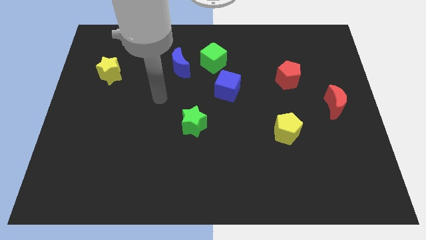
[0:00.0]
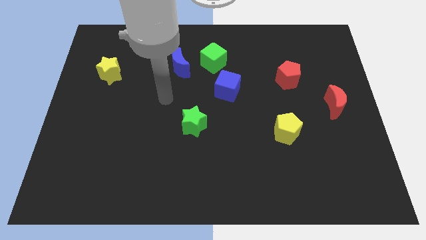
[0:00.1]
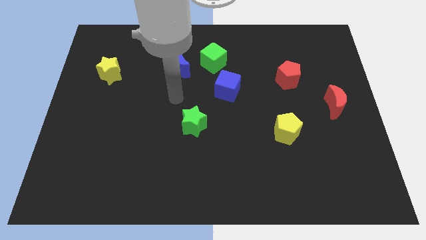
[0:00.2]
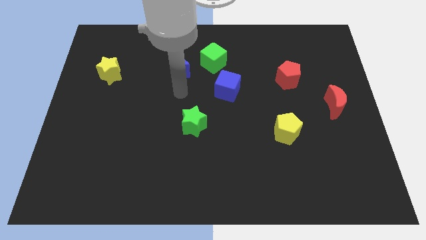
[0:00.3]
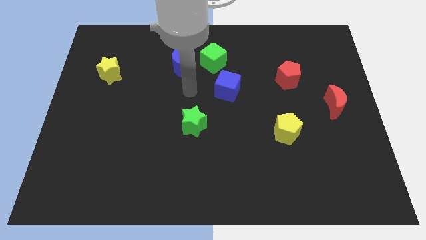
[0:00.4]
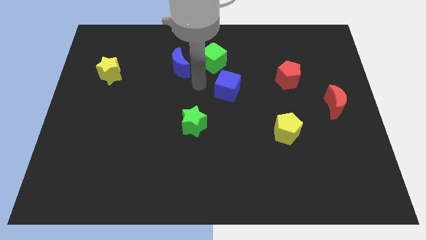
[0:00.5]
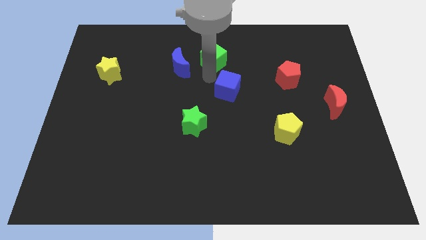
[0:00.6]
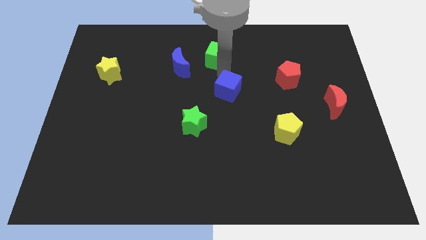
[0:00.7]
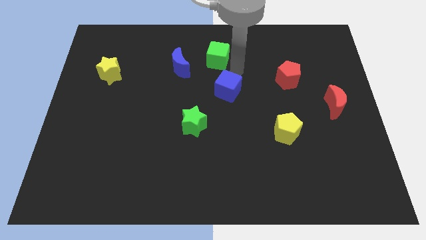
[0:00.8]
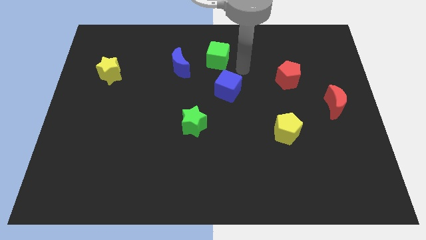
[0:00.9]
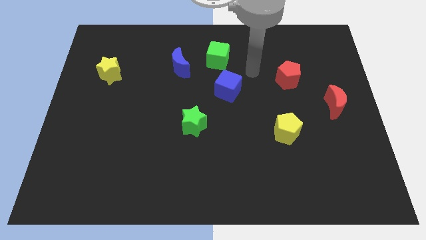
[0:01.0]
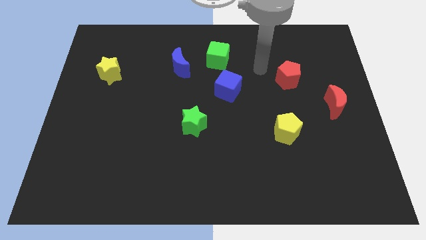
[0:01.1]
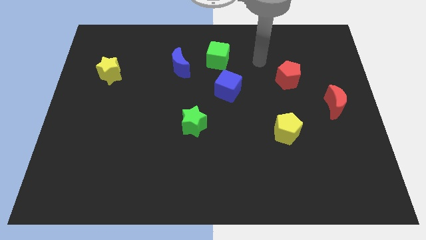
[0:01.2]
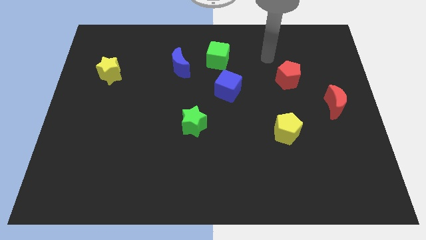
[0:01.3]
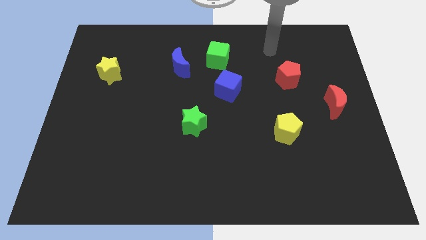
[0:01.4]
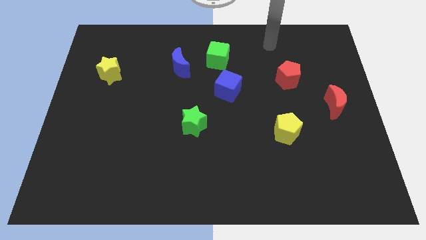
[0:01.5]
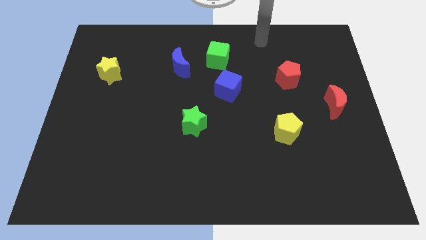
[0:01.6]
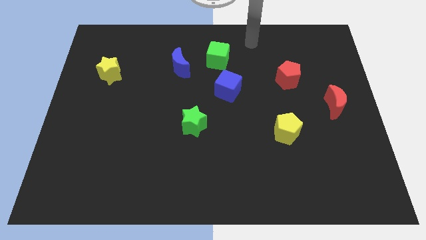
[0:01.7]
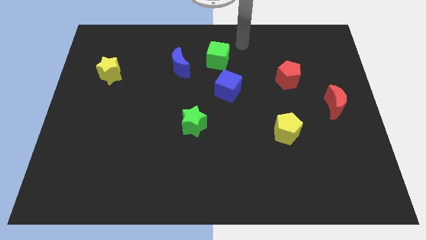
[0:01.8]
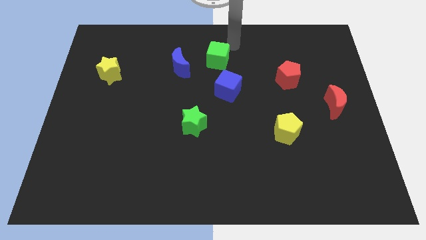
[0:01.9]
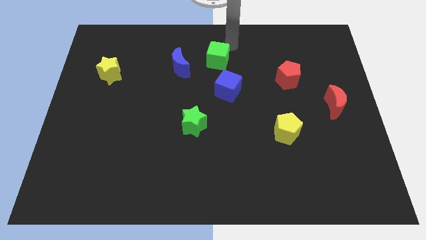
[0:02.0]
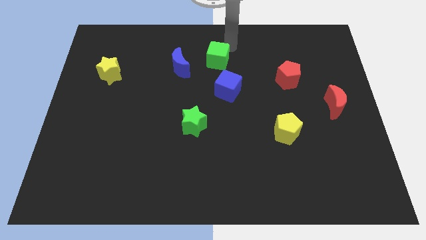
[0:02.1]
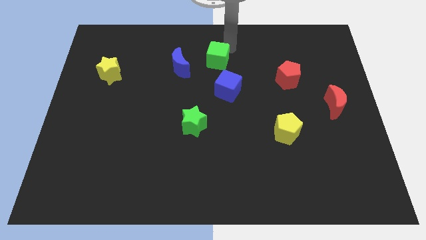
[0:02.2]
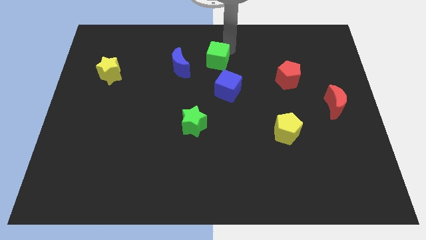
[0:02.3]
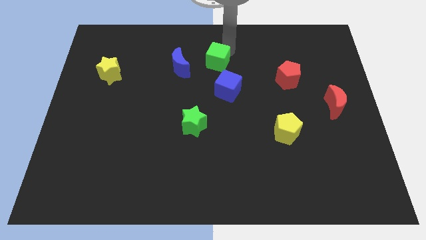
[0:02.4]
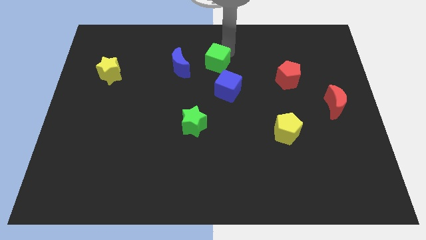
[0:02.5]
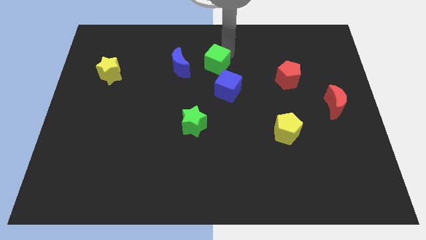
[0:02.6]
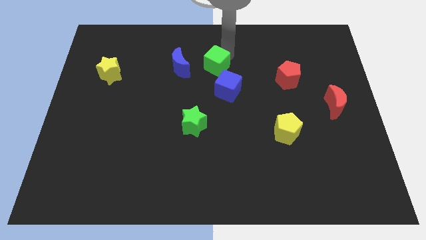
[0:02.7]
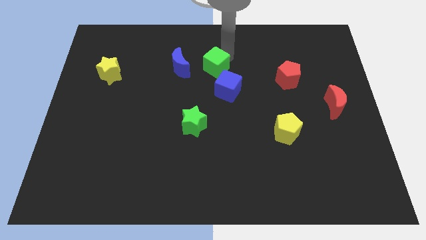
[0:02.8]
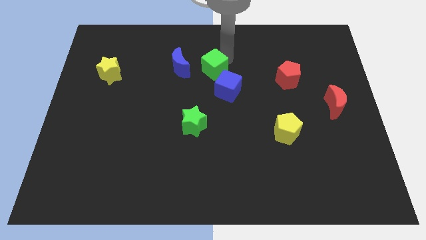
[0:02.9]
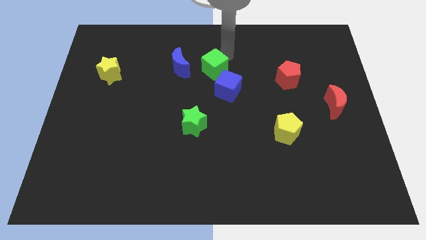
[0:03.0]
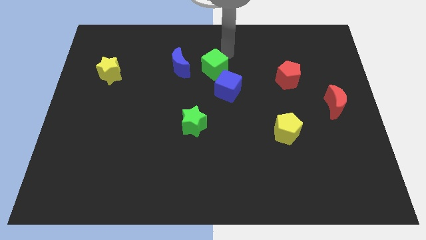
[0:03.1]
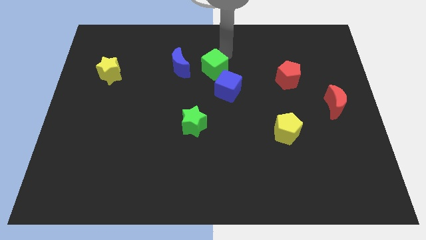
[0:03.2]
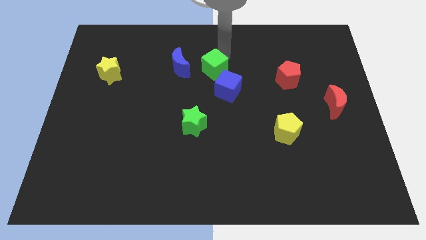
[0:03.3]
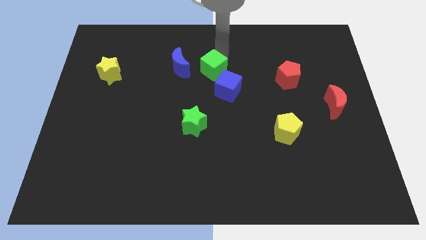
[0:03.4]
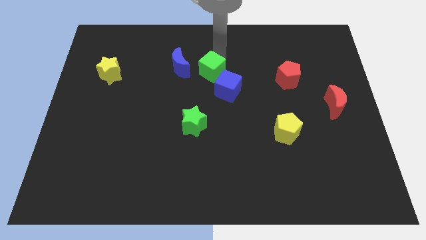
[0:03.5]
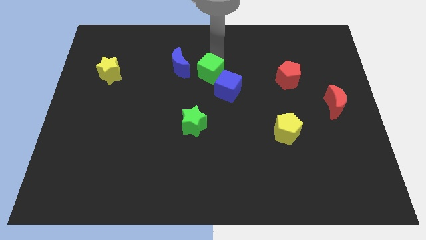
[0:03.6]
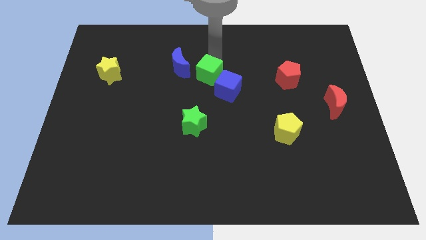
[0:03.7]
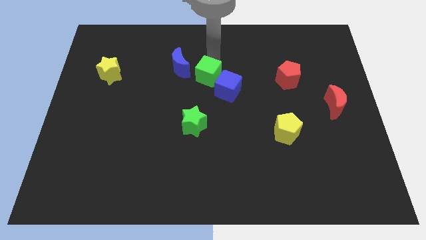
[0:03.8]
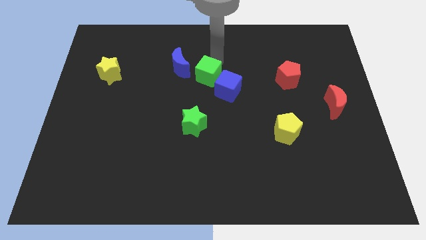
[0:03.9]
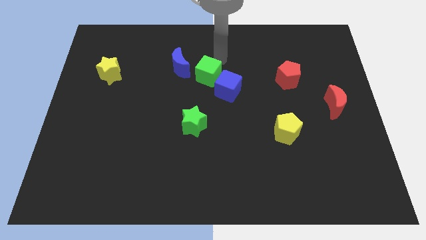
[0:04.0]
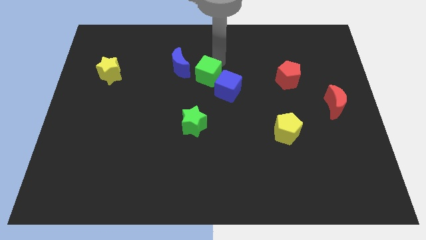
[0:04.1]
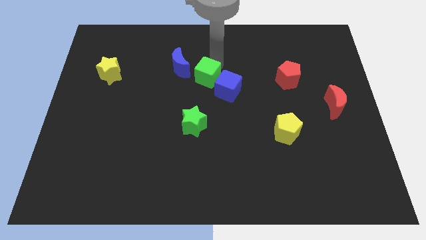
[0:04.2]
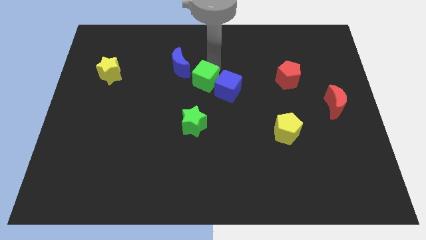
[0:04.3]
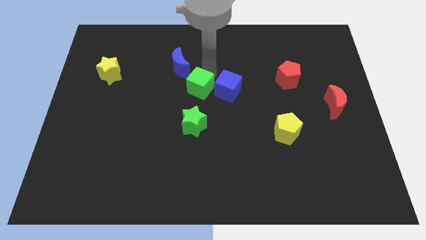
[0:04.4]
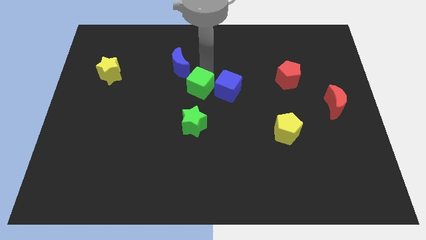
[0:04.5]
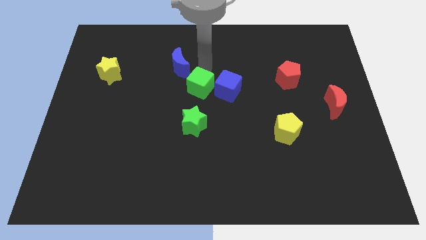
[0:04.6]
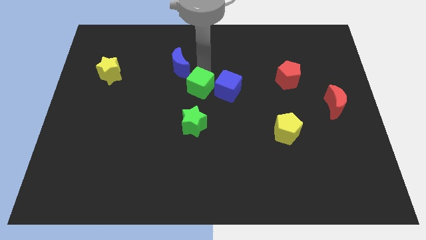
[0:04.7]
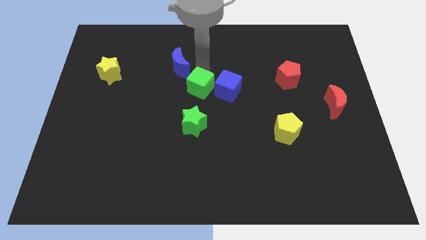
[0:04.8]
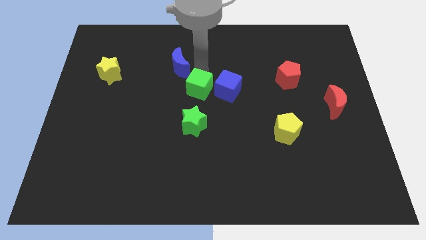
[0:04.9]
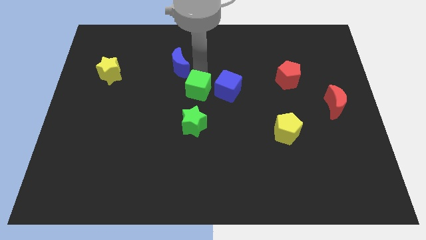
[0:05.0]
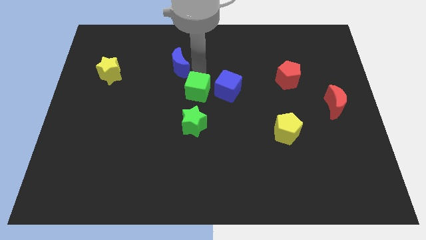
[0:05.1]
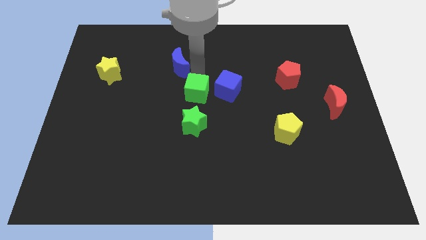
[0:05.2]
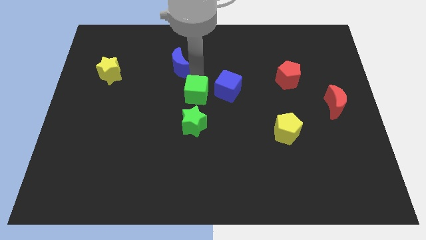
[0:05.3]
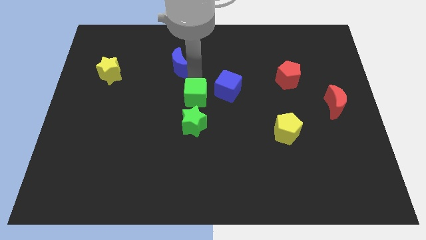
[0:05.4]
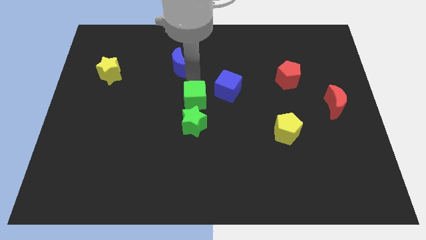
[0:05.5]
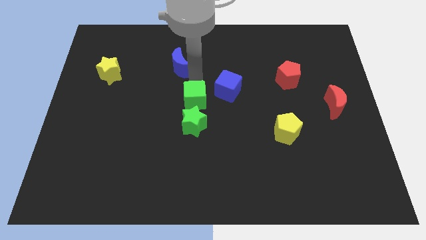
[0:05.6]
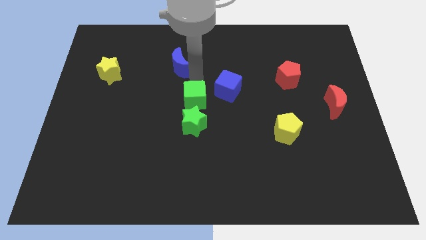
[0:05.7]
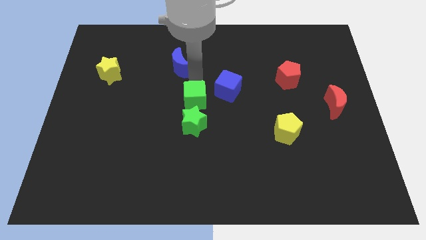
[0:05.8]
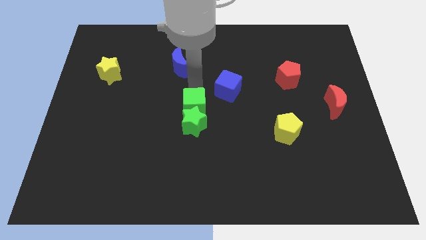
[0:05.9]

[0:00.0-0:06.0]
move the green cube to the green star

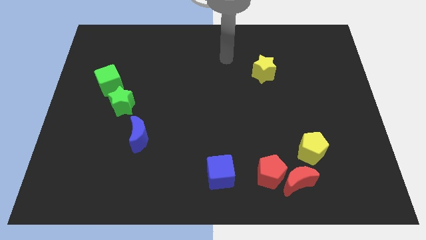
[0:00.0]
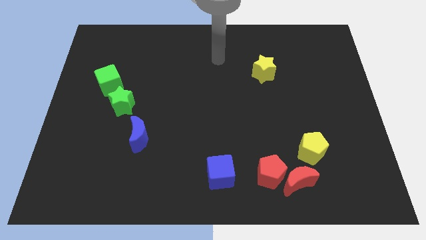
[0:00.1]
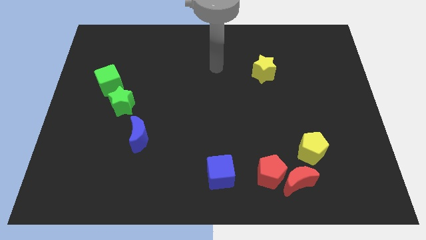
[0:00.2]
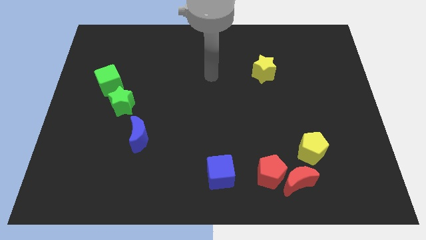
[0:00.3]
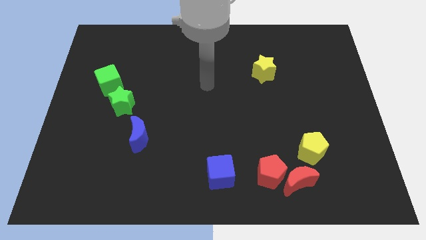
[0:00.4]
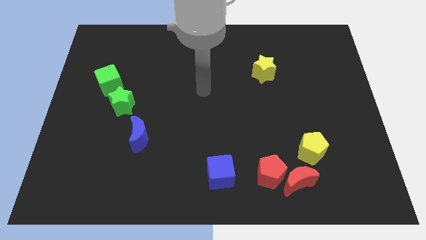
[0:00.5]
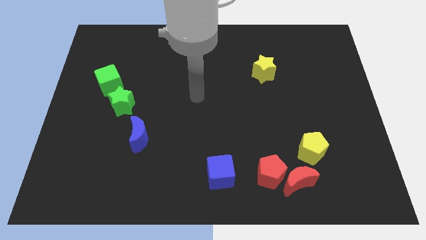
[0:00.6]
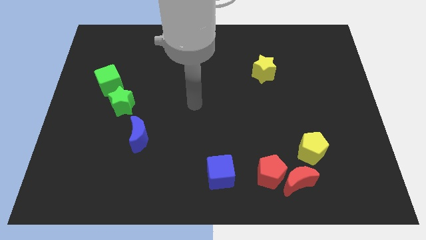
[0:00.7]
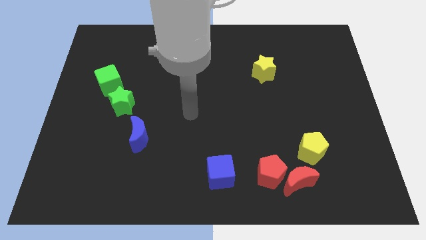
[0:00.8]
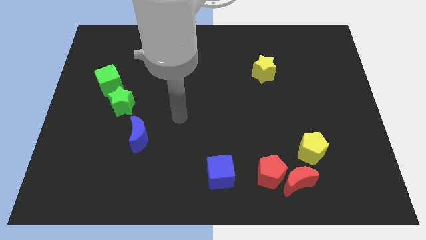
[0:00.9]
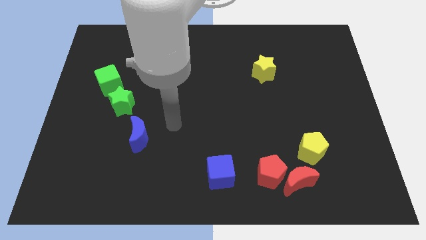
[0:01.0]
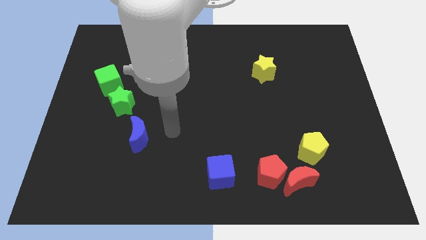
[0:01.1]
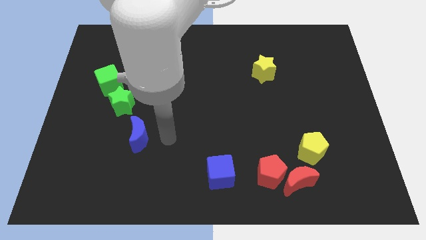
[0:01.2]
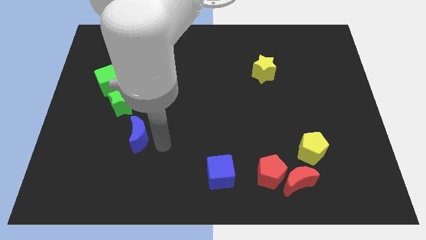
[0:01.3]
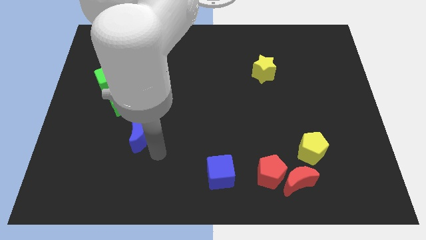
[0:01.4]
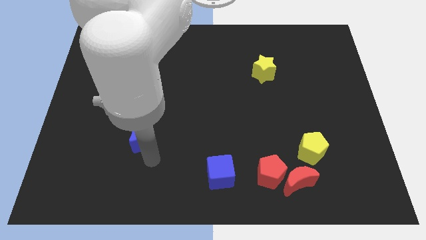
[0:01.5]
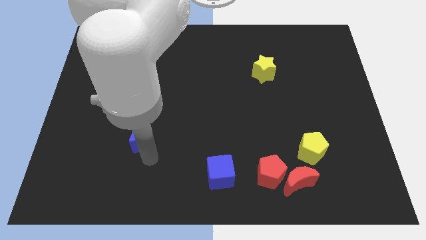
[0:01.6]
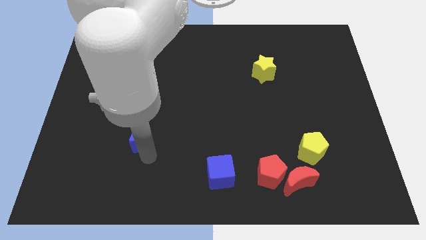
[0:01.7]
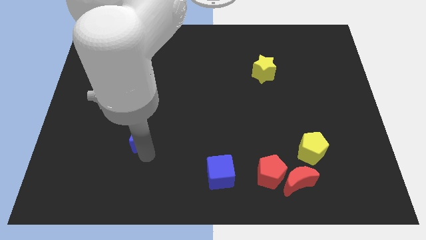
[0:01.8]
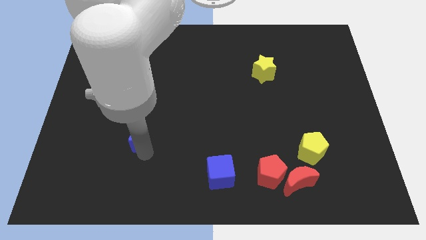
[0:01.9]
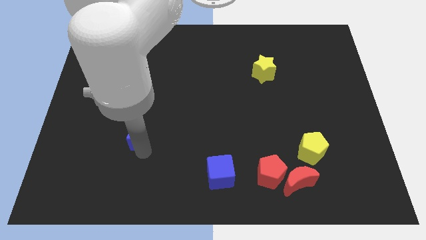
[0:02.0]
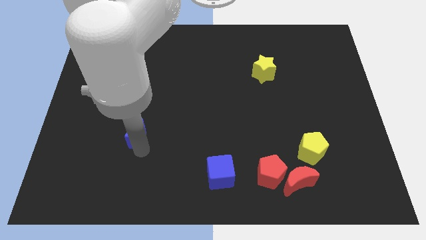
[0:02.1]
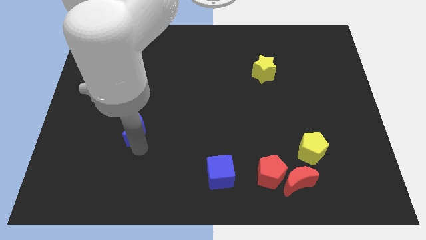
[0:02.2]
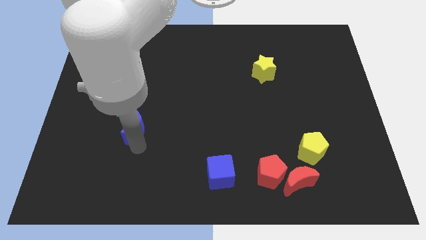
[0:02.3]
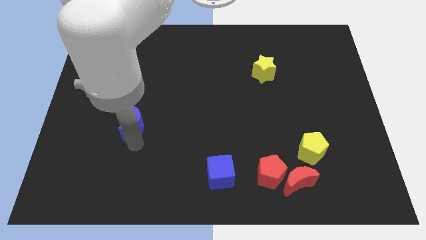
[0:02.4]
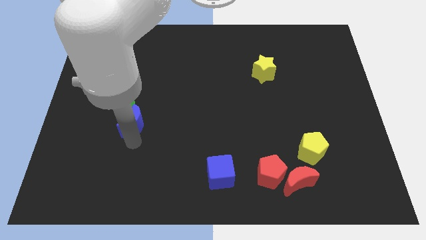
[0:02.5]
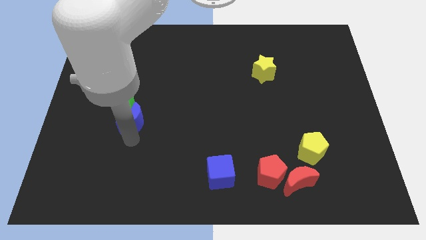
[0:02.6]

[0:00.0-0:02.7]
slide the blue moon to the green star
